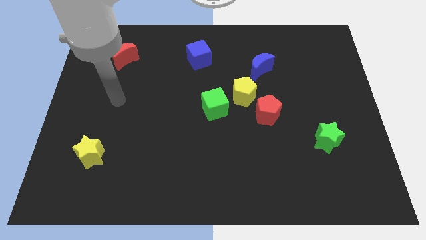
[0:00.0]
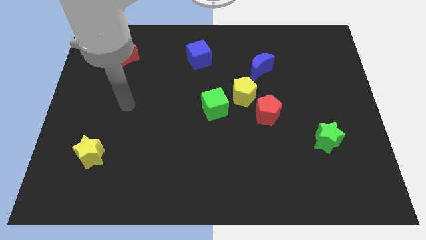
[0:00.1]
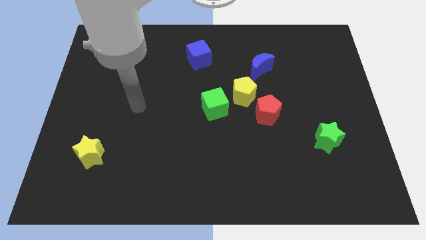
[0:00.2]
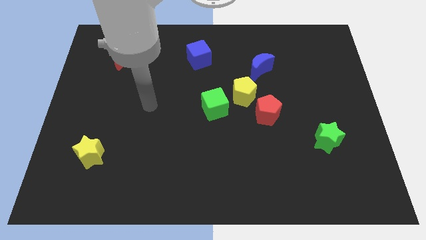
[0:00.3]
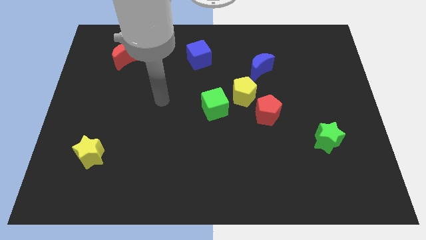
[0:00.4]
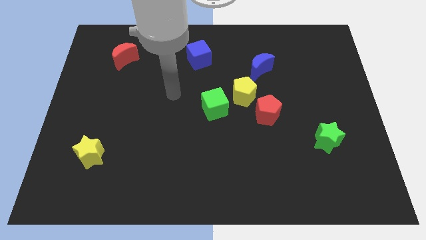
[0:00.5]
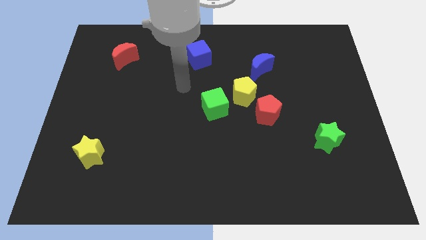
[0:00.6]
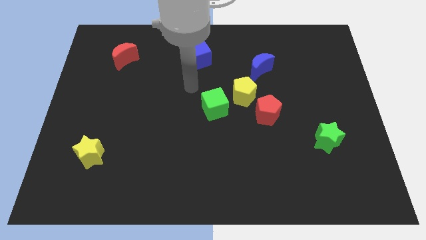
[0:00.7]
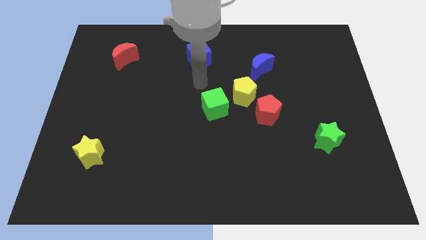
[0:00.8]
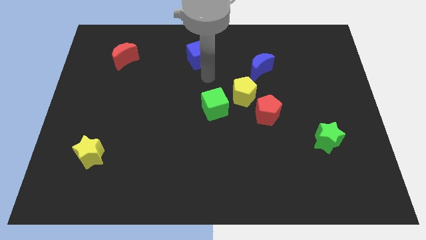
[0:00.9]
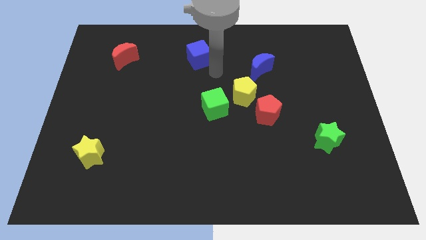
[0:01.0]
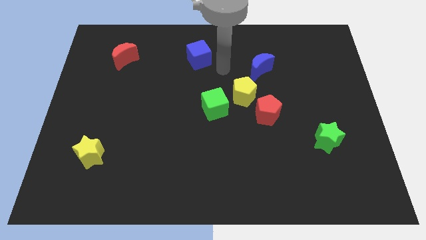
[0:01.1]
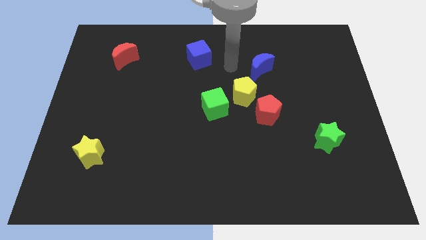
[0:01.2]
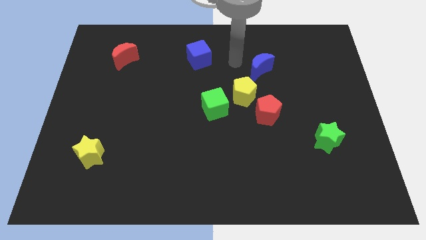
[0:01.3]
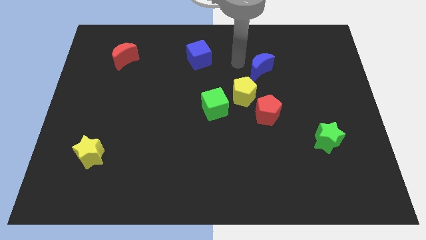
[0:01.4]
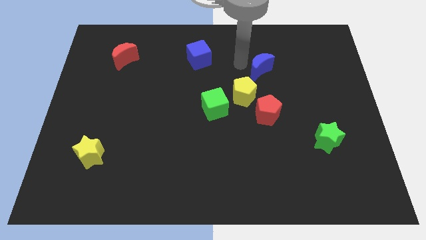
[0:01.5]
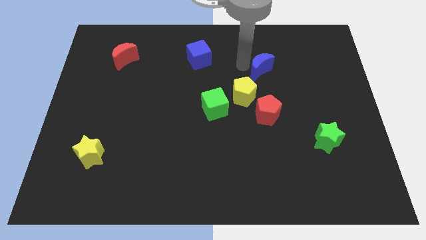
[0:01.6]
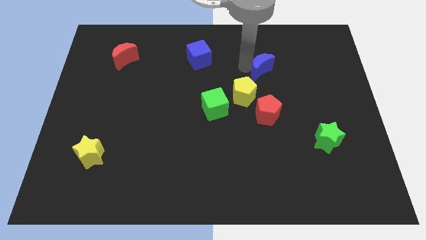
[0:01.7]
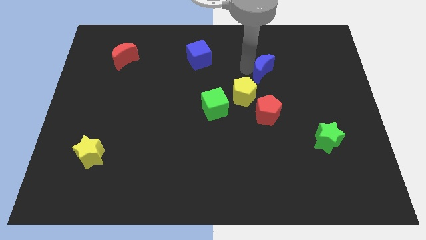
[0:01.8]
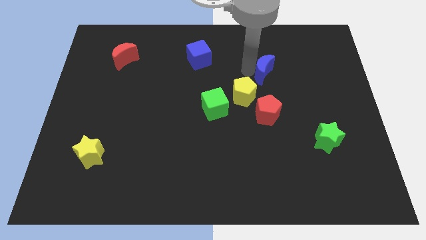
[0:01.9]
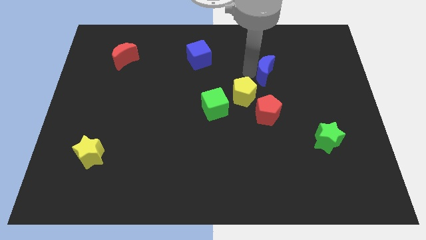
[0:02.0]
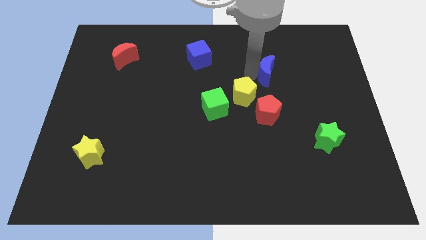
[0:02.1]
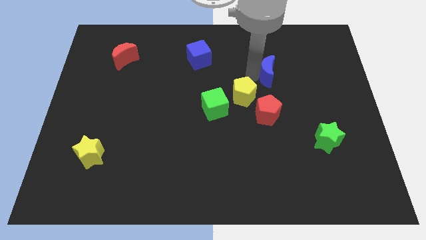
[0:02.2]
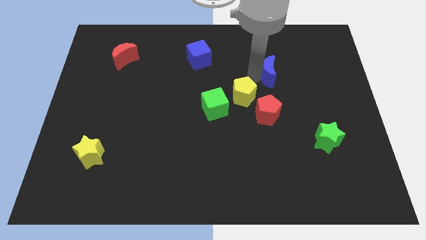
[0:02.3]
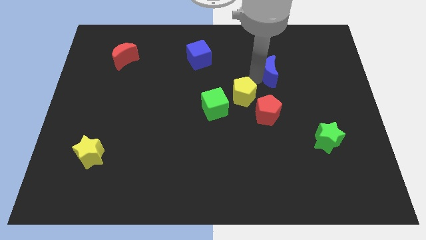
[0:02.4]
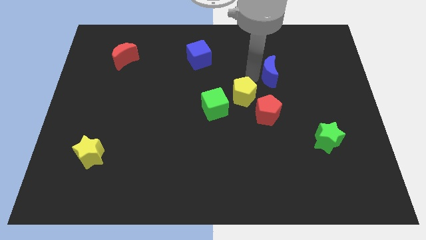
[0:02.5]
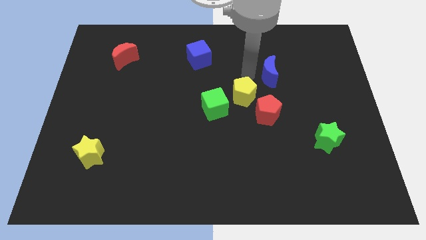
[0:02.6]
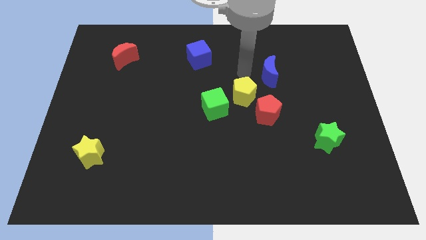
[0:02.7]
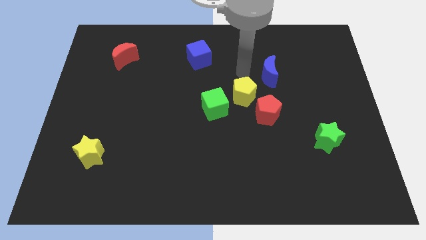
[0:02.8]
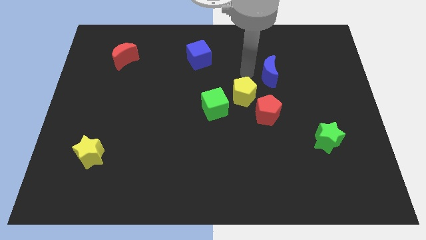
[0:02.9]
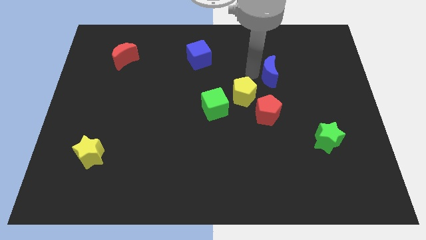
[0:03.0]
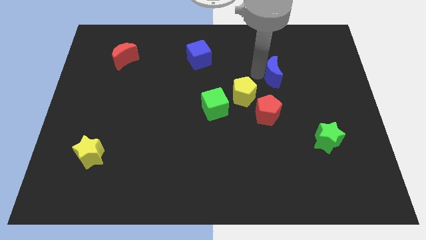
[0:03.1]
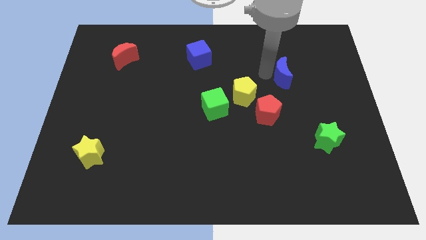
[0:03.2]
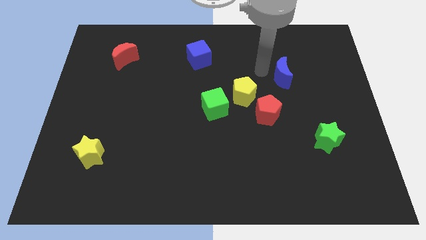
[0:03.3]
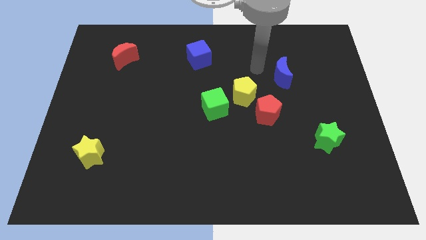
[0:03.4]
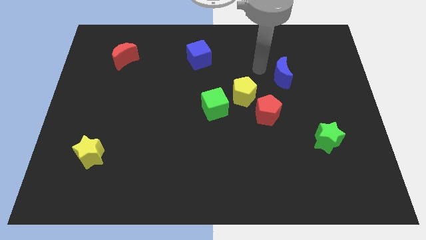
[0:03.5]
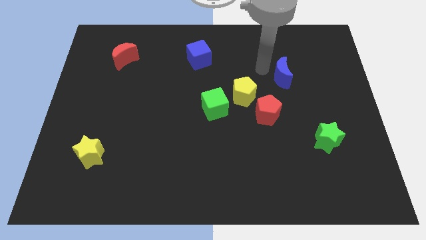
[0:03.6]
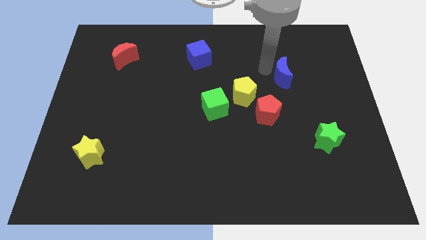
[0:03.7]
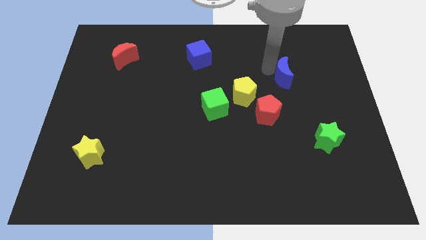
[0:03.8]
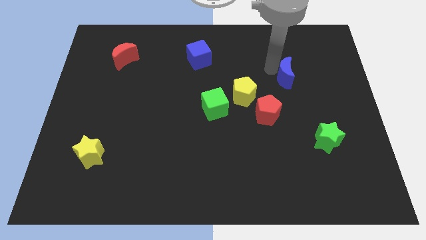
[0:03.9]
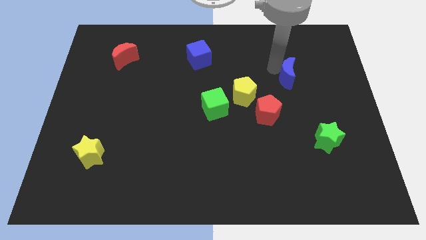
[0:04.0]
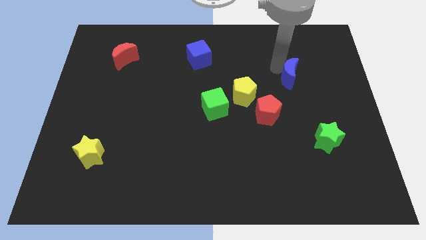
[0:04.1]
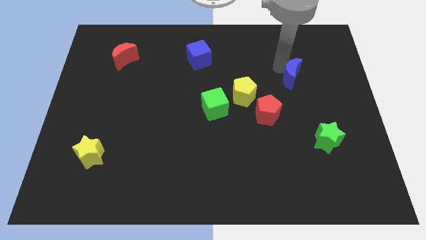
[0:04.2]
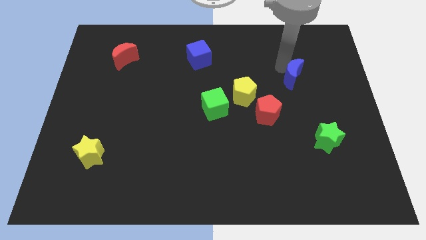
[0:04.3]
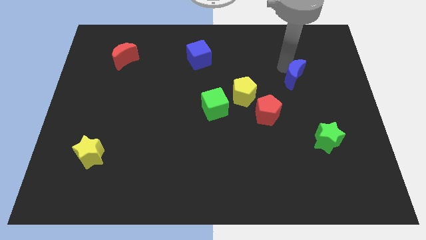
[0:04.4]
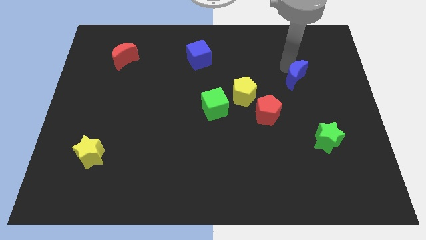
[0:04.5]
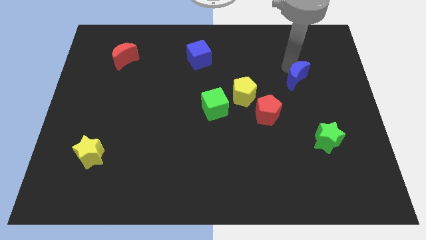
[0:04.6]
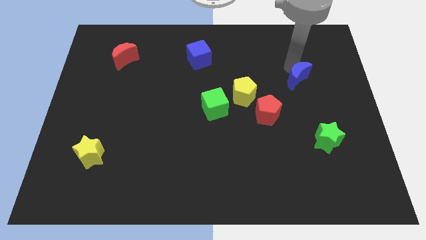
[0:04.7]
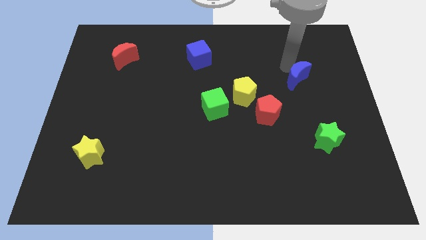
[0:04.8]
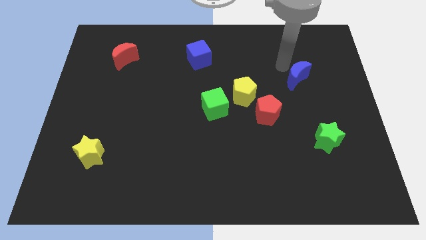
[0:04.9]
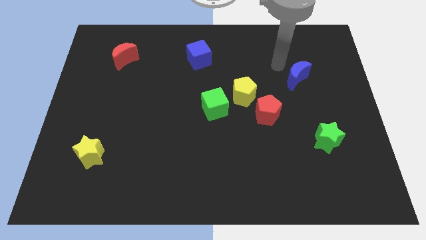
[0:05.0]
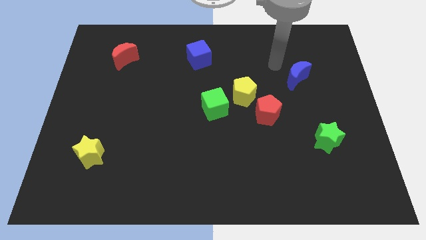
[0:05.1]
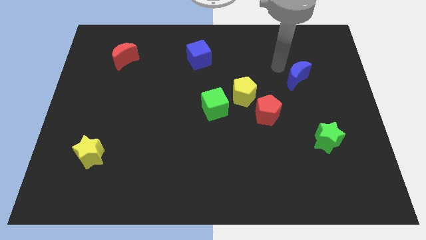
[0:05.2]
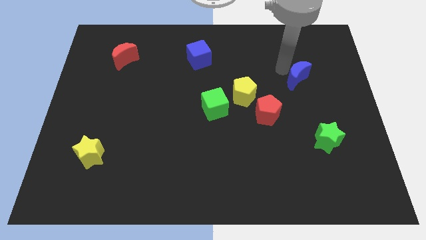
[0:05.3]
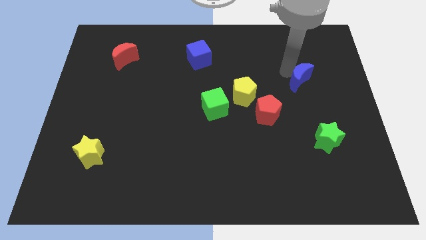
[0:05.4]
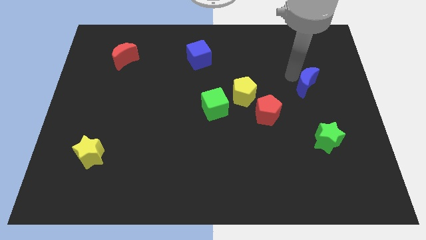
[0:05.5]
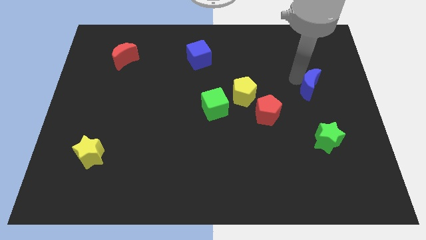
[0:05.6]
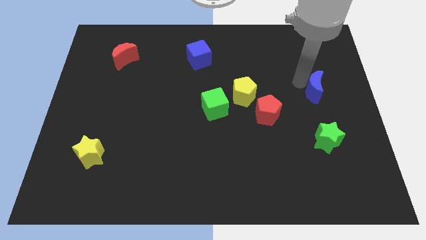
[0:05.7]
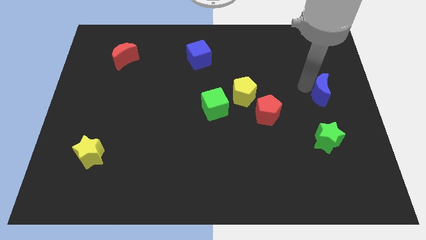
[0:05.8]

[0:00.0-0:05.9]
move the blue moon to the right side of the board

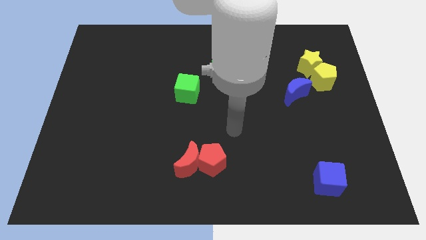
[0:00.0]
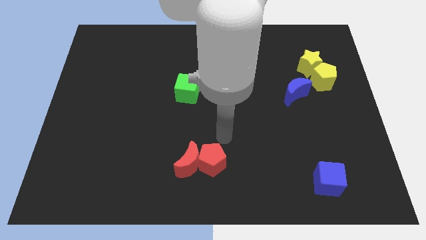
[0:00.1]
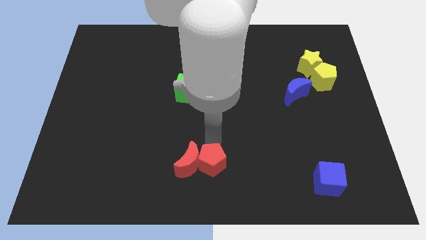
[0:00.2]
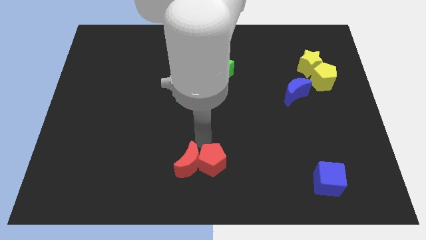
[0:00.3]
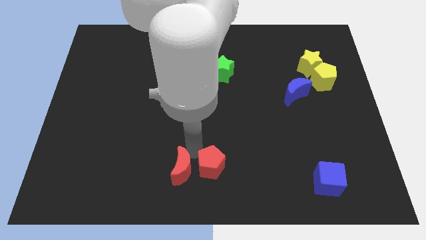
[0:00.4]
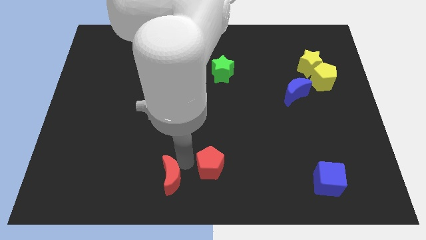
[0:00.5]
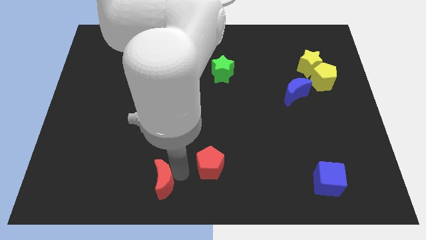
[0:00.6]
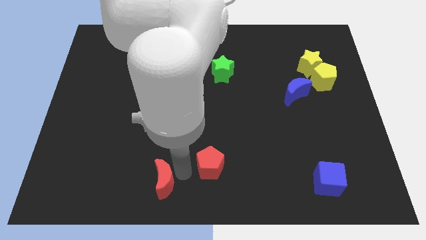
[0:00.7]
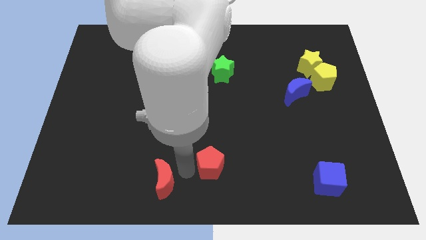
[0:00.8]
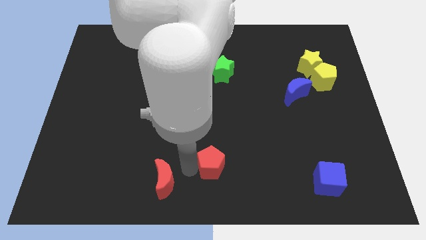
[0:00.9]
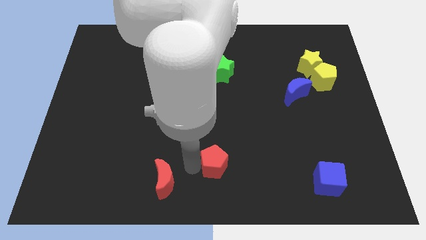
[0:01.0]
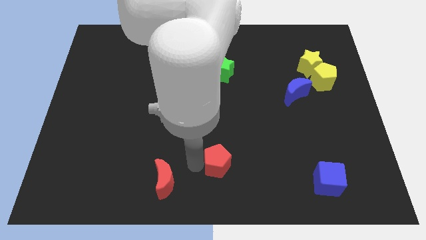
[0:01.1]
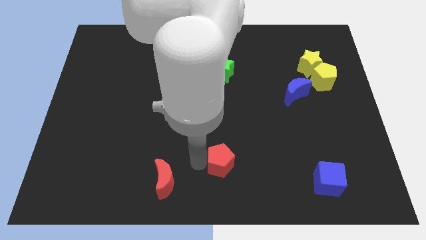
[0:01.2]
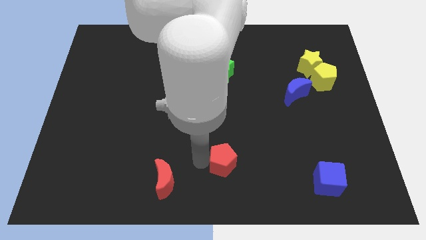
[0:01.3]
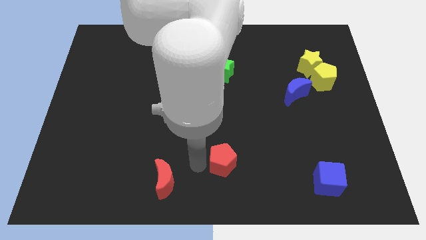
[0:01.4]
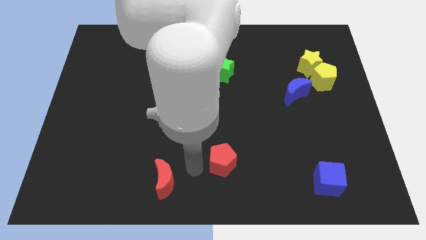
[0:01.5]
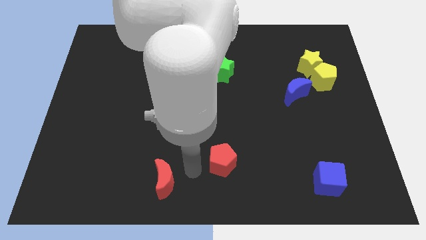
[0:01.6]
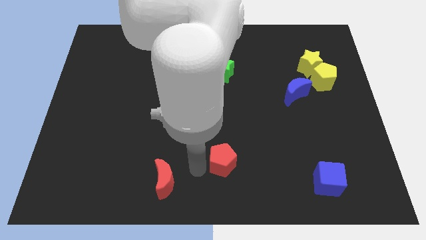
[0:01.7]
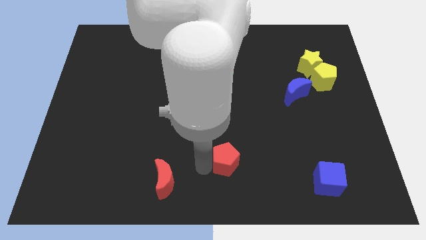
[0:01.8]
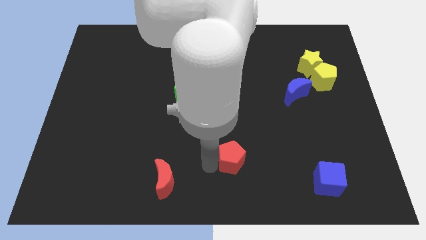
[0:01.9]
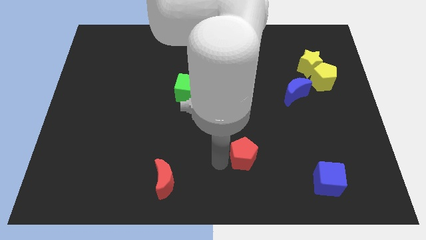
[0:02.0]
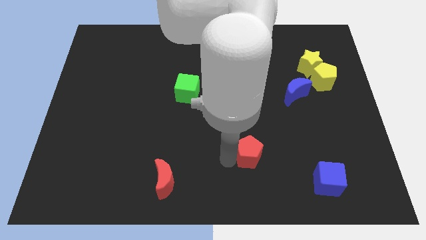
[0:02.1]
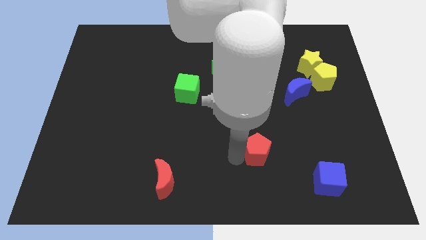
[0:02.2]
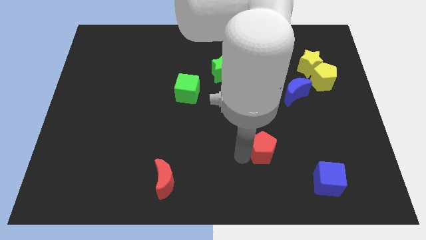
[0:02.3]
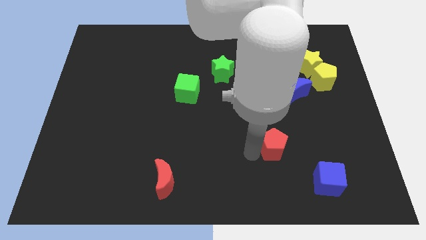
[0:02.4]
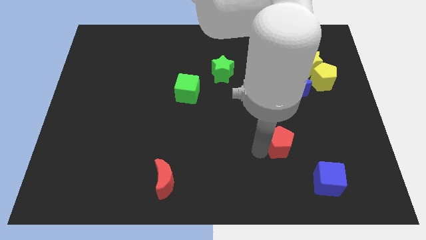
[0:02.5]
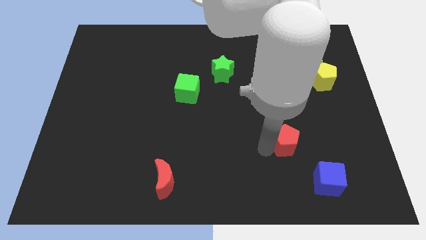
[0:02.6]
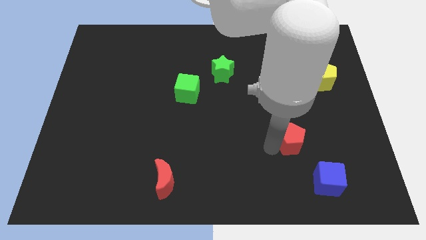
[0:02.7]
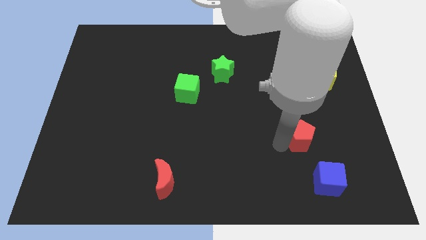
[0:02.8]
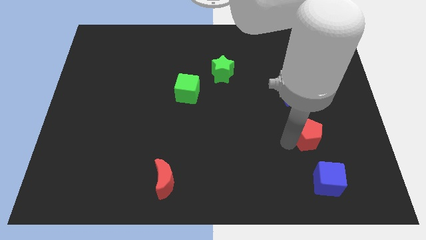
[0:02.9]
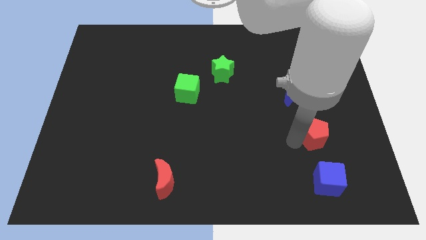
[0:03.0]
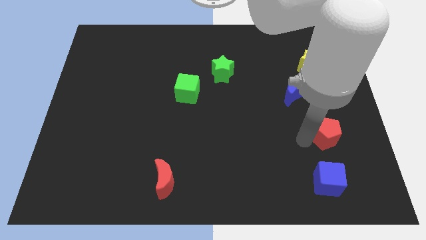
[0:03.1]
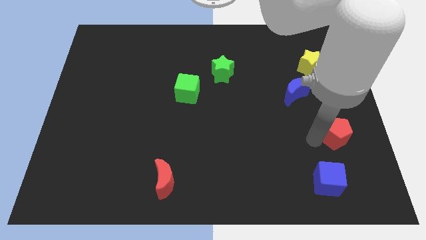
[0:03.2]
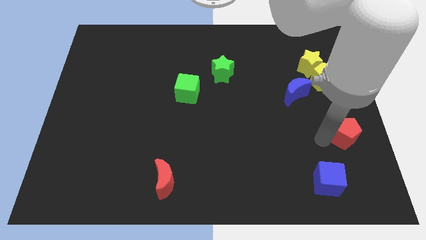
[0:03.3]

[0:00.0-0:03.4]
slide the red pentagon to the center right
